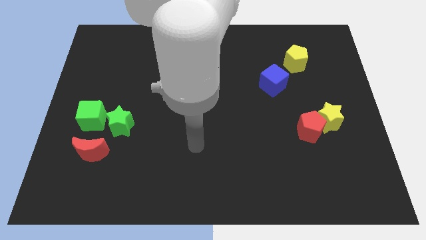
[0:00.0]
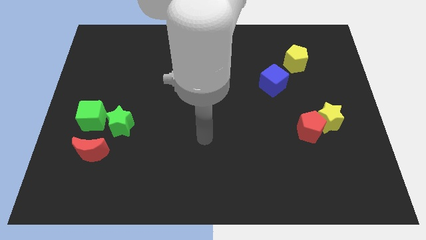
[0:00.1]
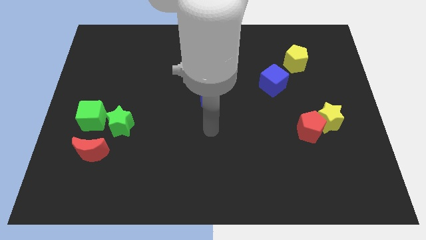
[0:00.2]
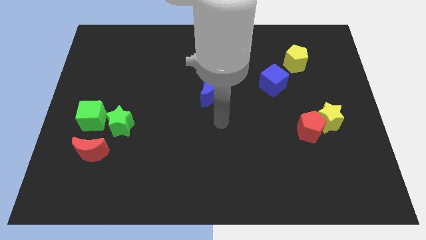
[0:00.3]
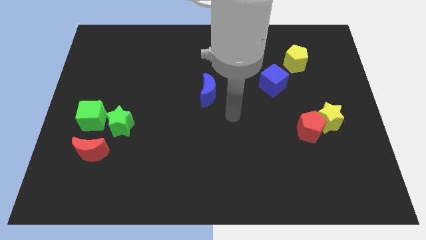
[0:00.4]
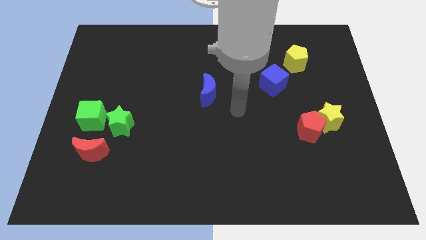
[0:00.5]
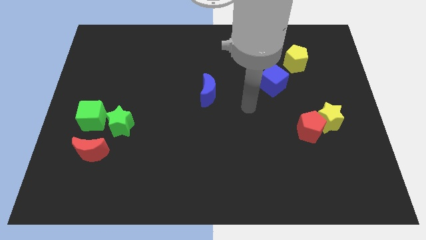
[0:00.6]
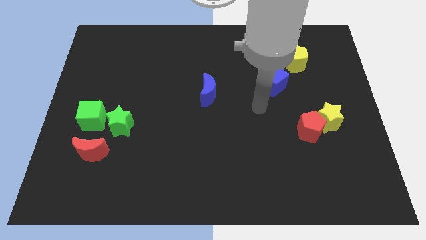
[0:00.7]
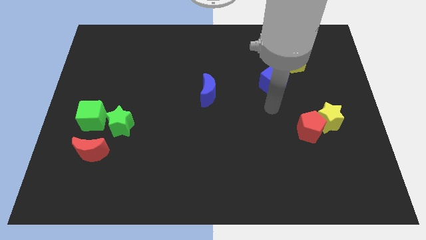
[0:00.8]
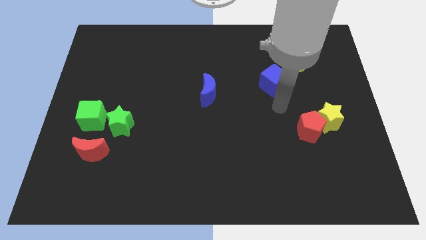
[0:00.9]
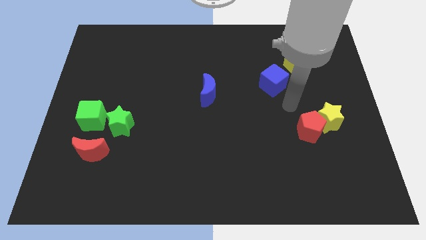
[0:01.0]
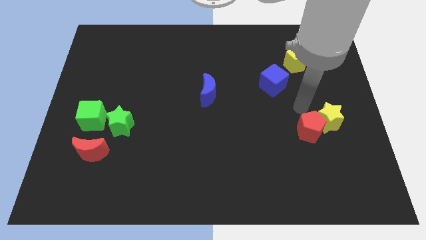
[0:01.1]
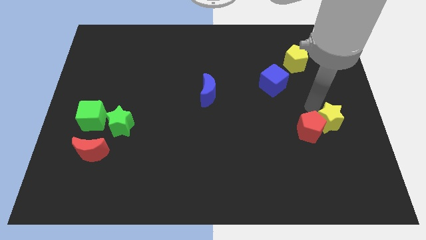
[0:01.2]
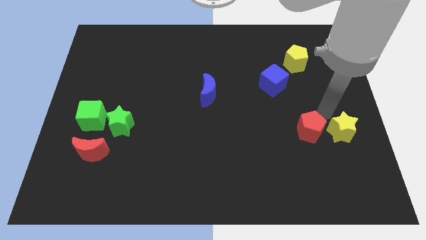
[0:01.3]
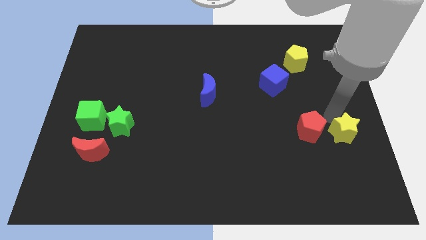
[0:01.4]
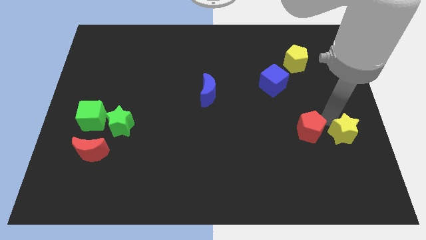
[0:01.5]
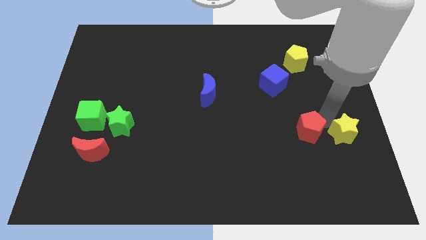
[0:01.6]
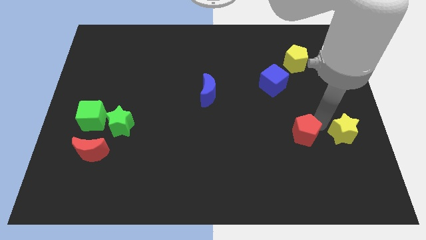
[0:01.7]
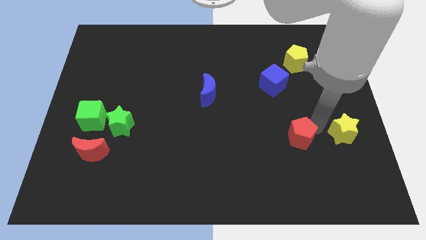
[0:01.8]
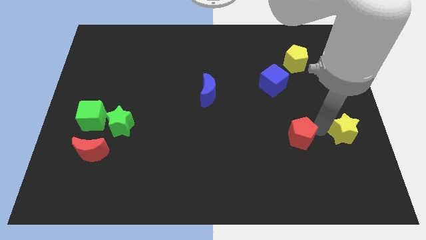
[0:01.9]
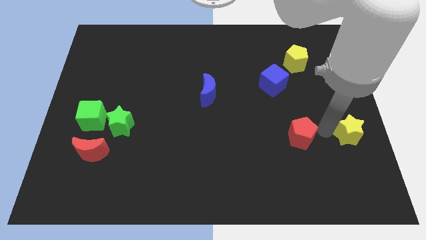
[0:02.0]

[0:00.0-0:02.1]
move the red pentagon away from the yellow star

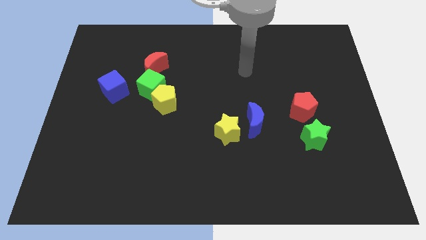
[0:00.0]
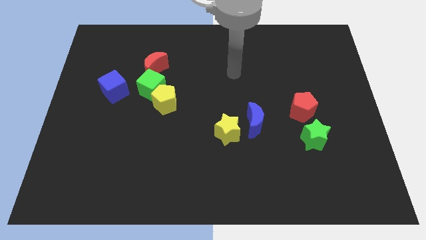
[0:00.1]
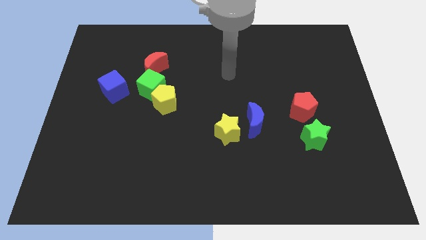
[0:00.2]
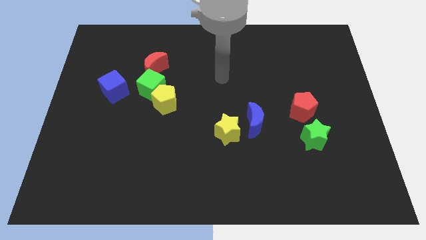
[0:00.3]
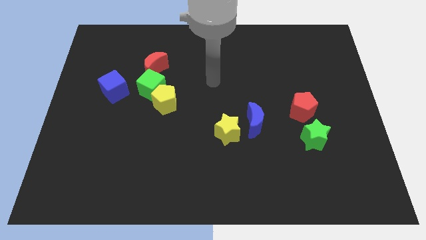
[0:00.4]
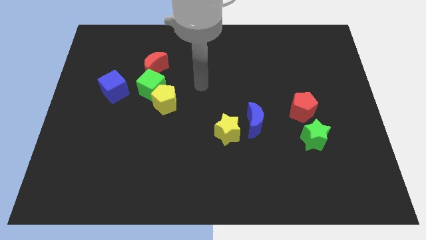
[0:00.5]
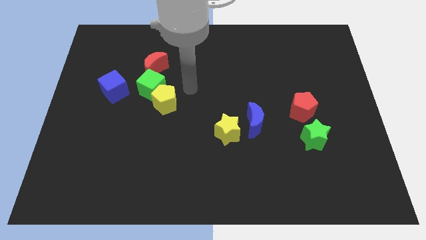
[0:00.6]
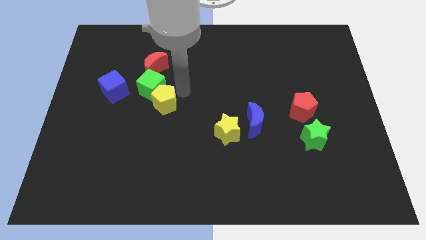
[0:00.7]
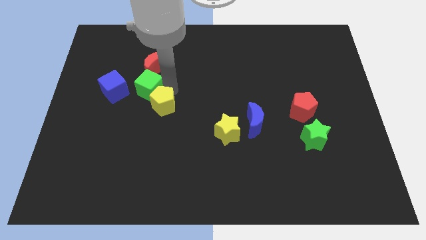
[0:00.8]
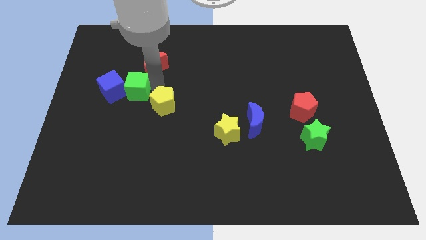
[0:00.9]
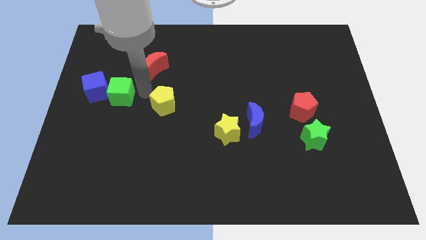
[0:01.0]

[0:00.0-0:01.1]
separate the yellow pentagon from the green cube

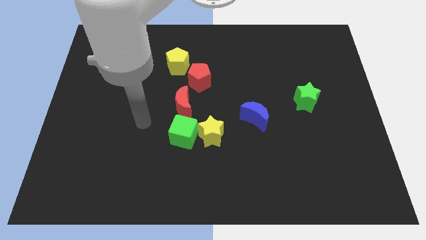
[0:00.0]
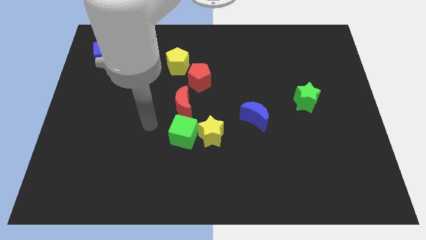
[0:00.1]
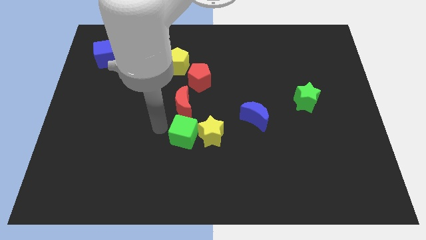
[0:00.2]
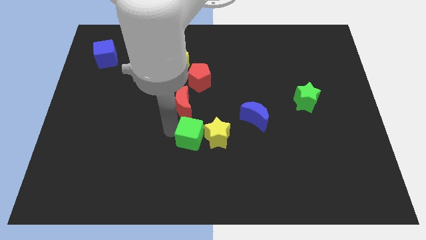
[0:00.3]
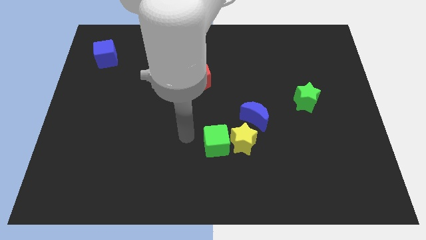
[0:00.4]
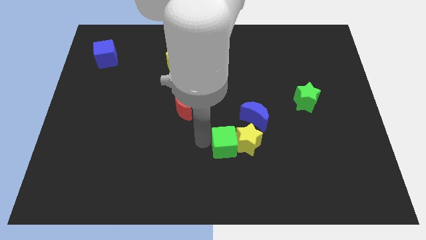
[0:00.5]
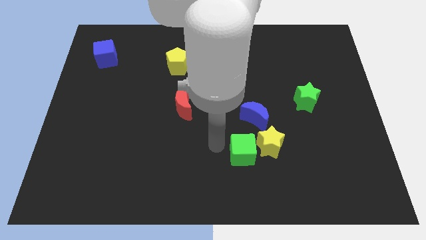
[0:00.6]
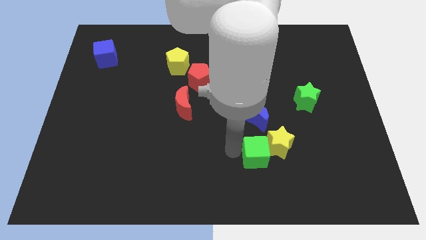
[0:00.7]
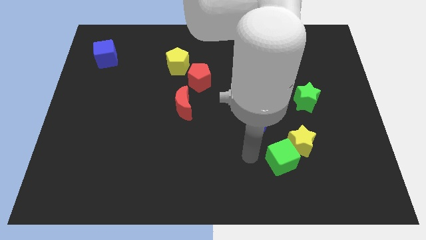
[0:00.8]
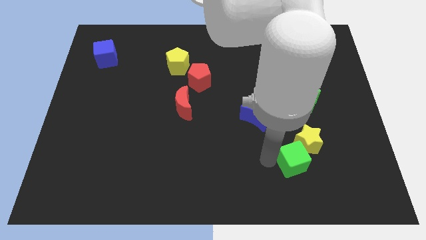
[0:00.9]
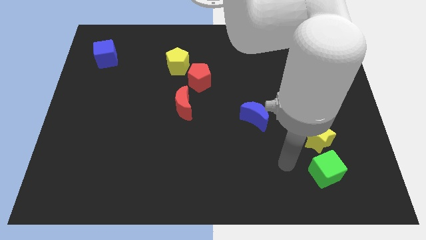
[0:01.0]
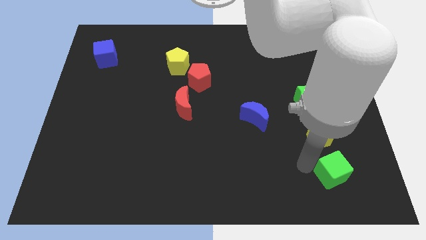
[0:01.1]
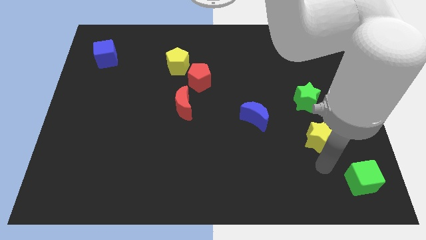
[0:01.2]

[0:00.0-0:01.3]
move the yellow star away from the green cube

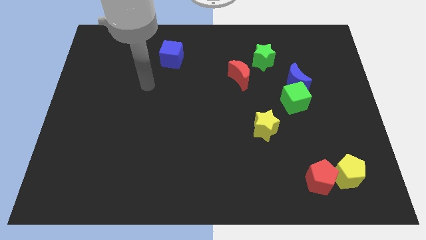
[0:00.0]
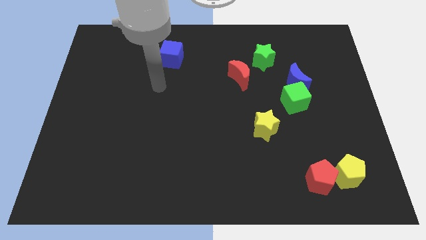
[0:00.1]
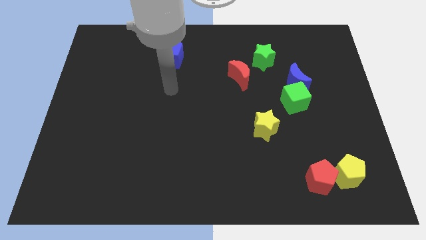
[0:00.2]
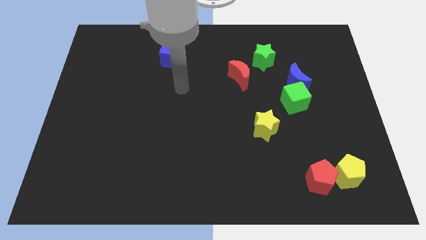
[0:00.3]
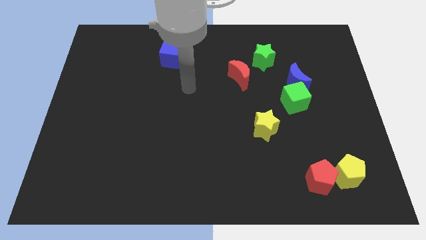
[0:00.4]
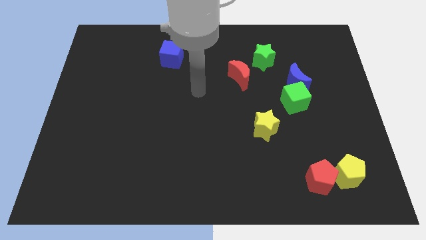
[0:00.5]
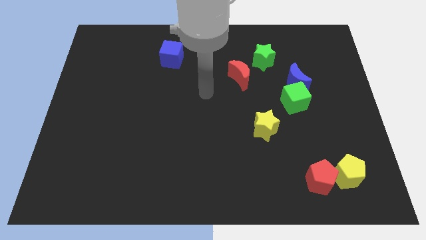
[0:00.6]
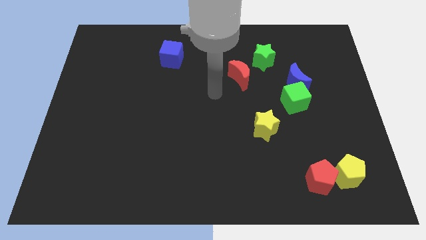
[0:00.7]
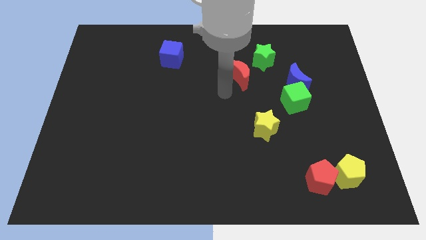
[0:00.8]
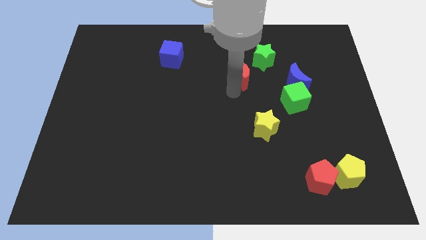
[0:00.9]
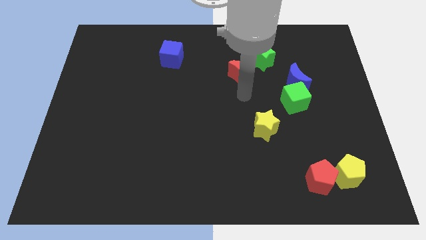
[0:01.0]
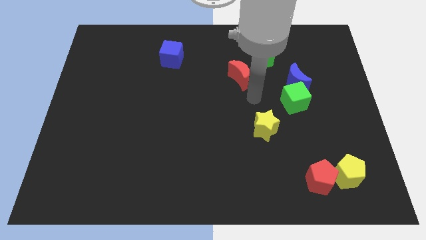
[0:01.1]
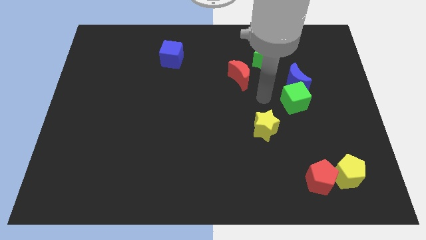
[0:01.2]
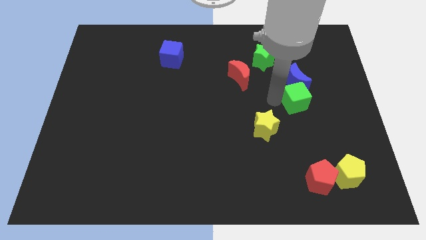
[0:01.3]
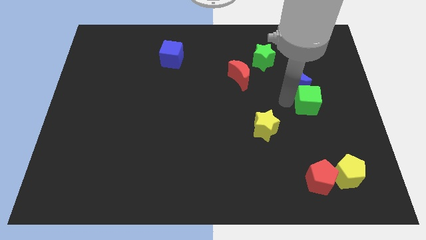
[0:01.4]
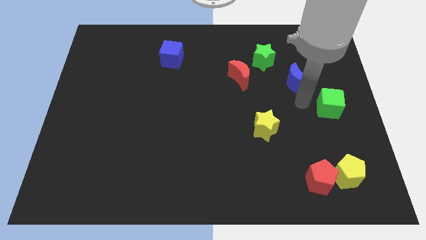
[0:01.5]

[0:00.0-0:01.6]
separate the blue moon from the green cube

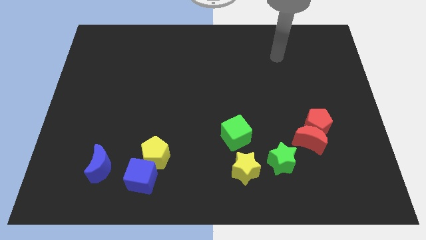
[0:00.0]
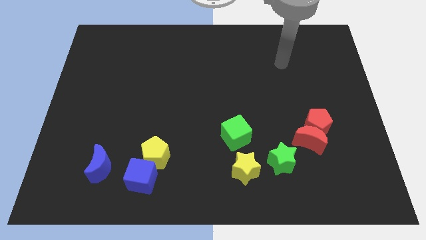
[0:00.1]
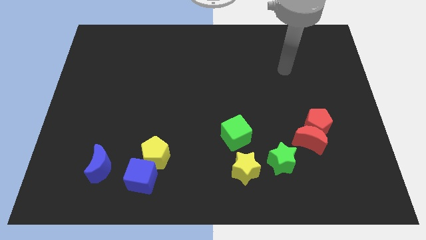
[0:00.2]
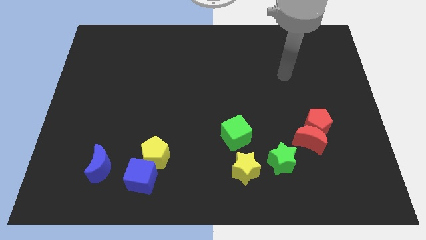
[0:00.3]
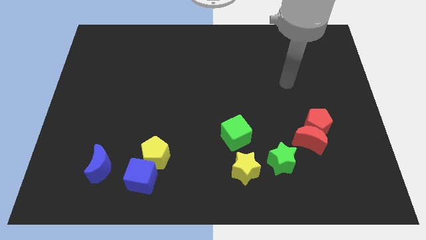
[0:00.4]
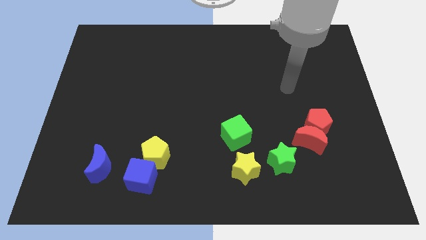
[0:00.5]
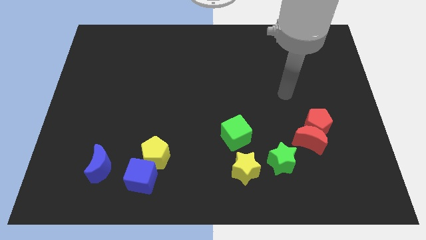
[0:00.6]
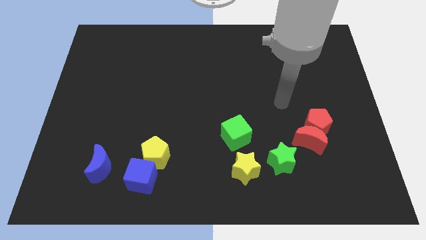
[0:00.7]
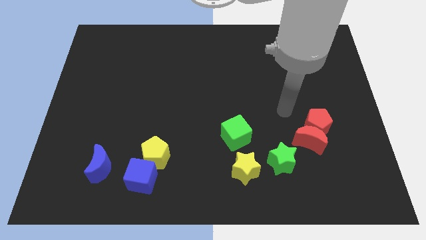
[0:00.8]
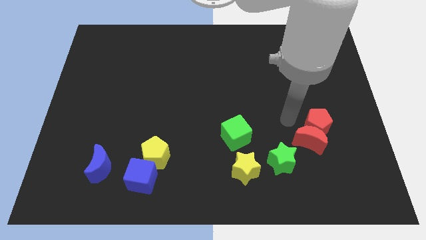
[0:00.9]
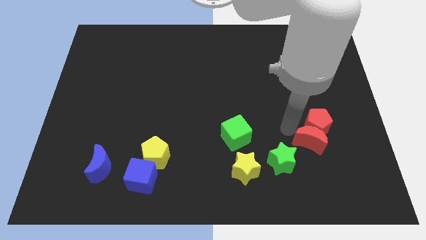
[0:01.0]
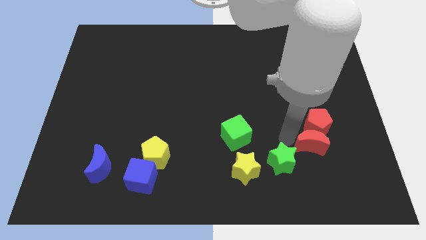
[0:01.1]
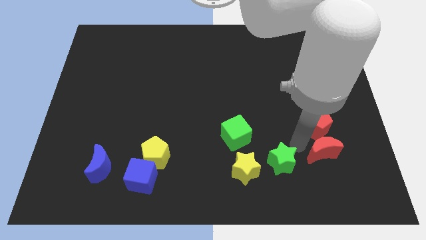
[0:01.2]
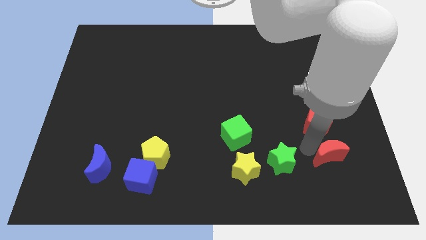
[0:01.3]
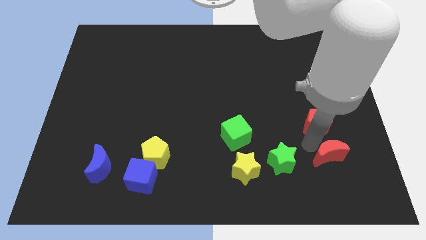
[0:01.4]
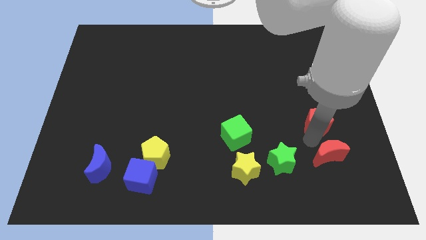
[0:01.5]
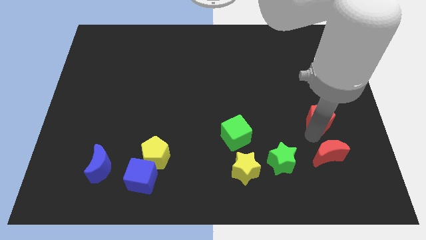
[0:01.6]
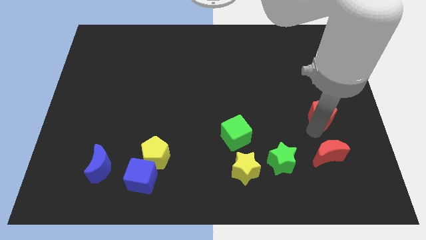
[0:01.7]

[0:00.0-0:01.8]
move the red pentagon away from the red moon

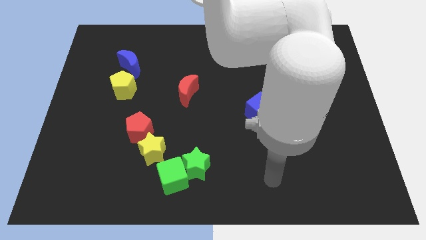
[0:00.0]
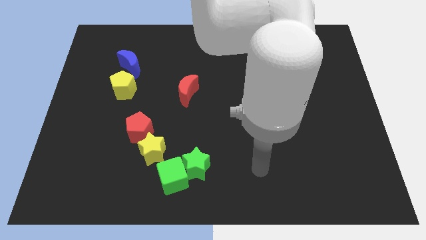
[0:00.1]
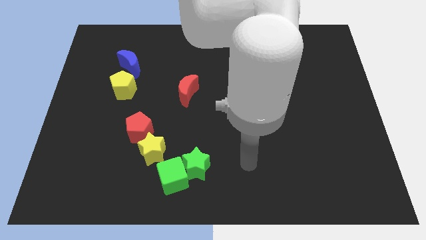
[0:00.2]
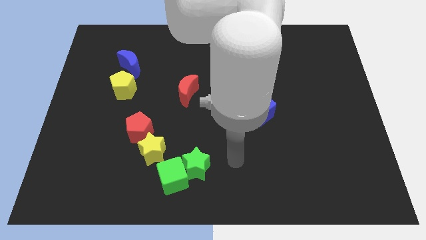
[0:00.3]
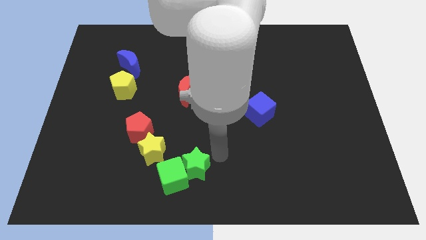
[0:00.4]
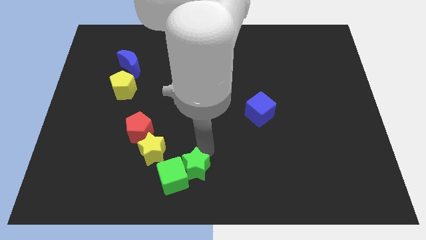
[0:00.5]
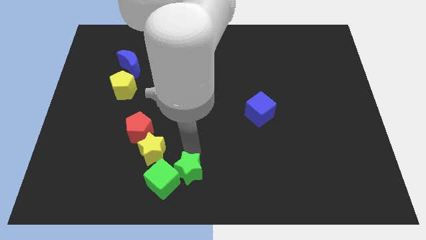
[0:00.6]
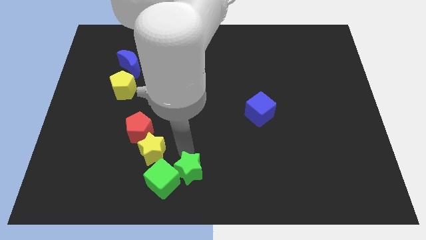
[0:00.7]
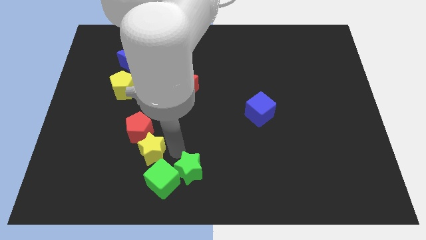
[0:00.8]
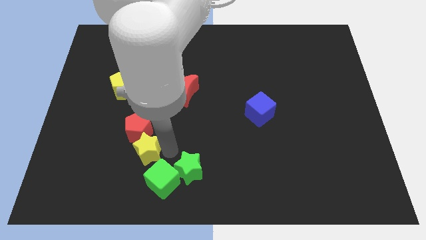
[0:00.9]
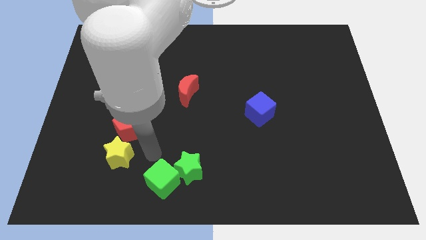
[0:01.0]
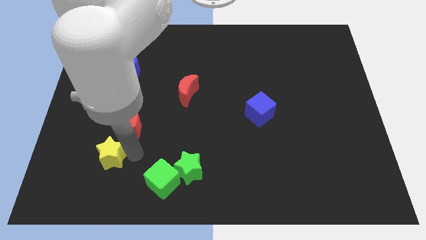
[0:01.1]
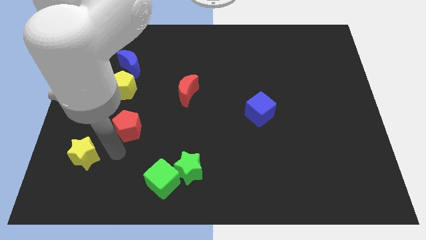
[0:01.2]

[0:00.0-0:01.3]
separate the red pentagon from the yellow star
